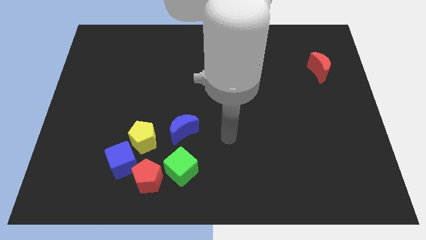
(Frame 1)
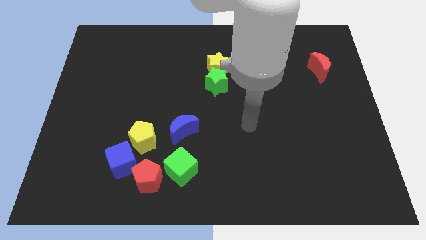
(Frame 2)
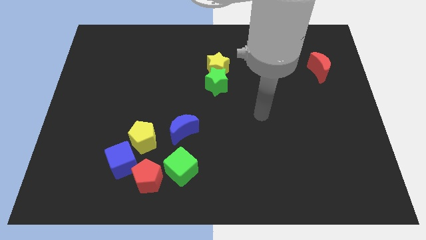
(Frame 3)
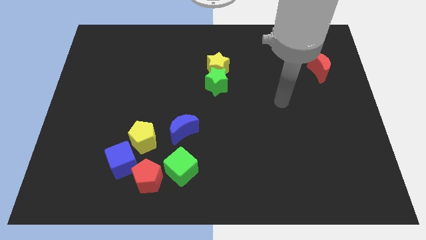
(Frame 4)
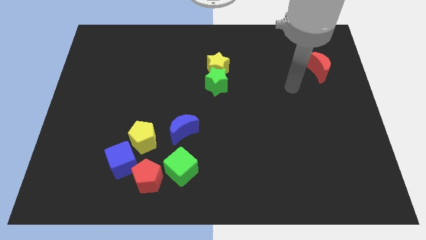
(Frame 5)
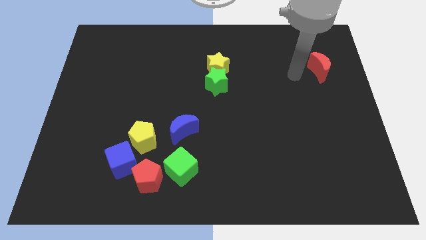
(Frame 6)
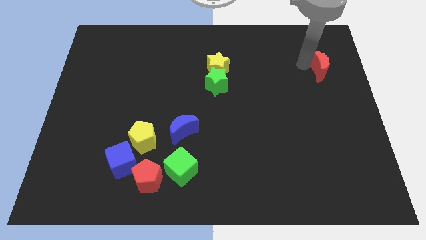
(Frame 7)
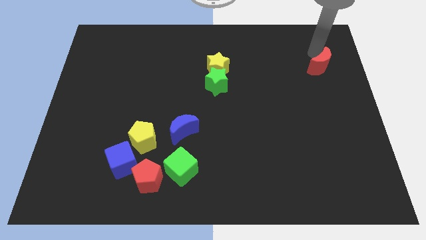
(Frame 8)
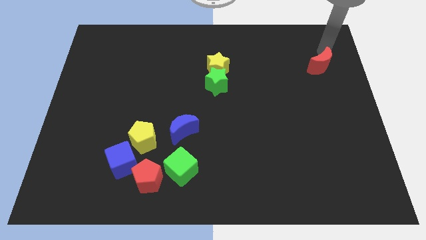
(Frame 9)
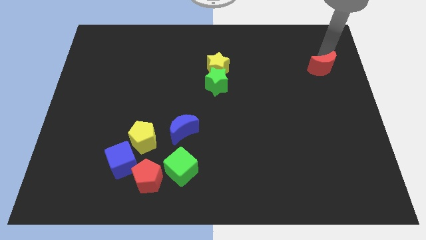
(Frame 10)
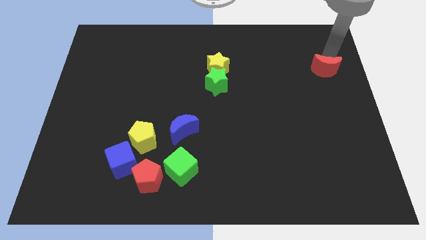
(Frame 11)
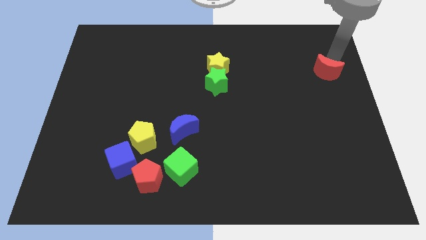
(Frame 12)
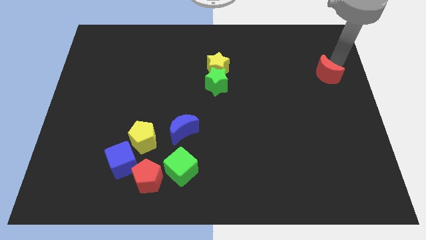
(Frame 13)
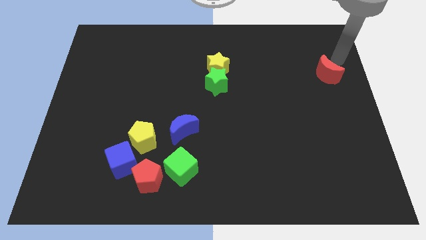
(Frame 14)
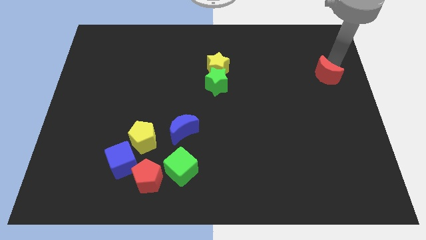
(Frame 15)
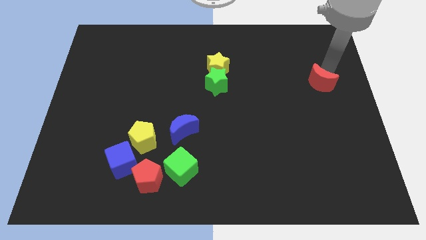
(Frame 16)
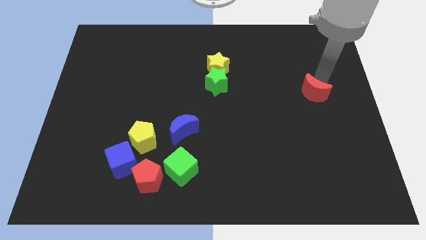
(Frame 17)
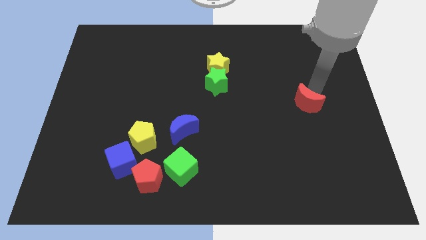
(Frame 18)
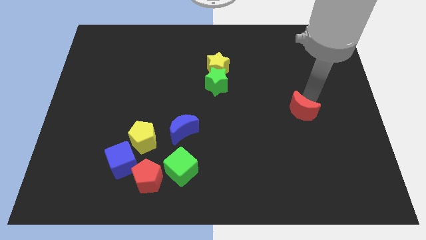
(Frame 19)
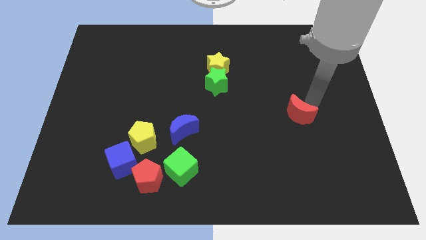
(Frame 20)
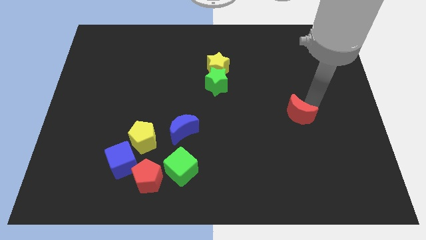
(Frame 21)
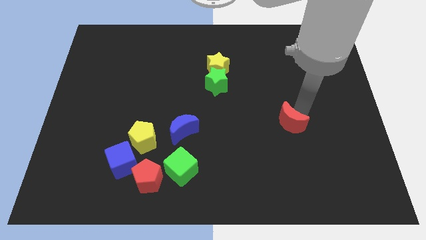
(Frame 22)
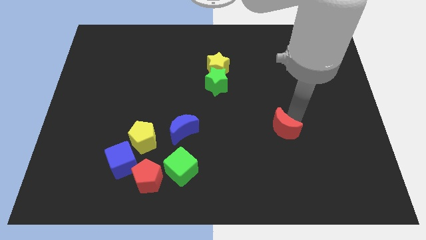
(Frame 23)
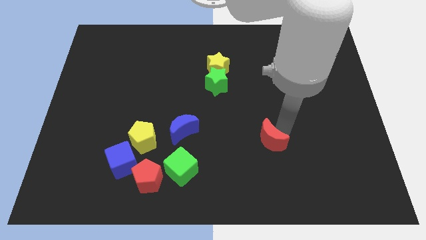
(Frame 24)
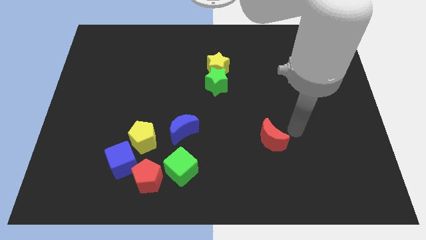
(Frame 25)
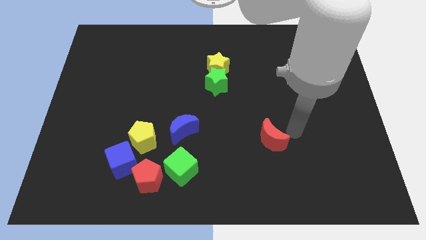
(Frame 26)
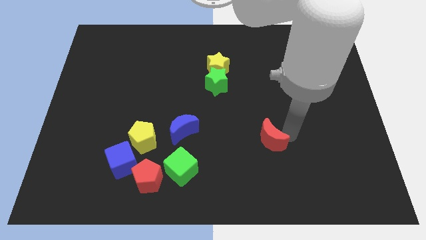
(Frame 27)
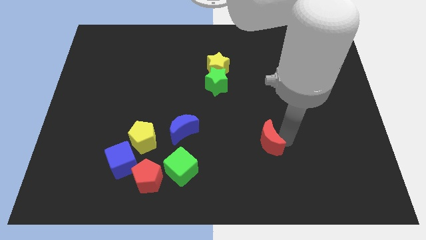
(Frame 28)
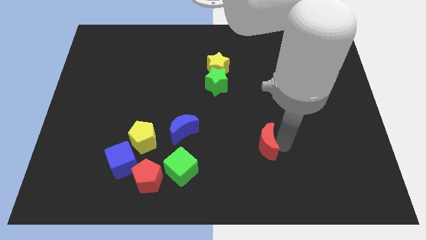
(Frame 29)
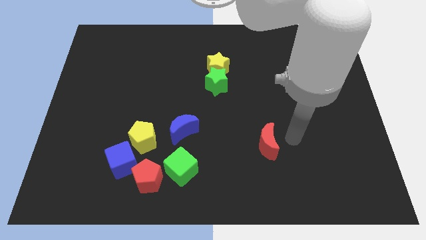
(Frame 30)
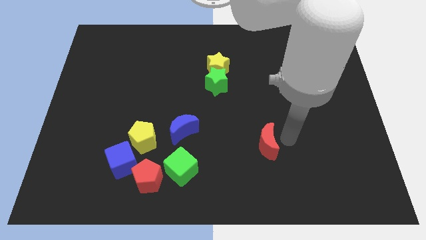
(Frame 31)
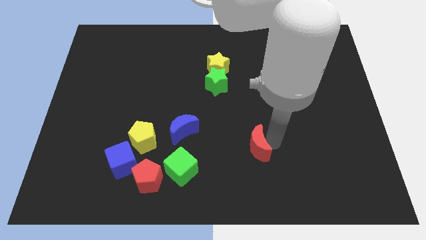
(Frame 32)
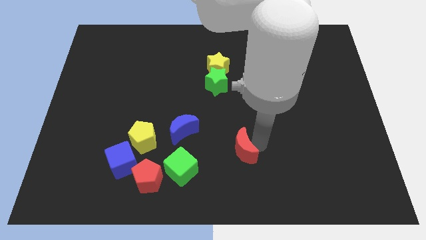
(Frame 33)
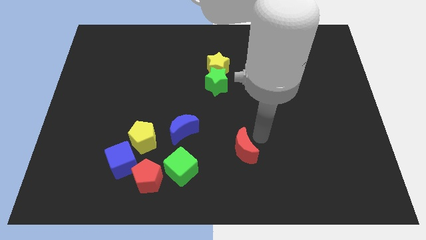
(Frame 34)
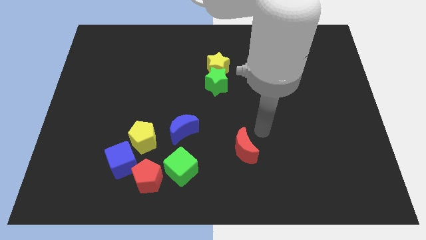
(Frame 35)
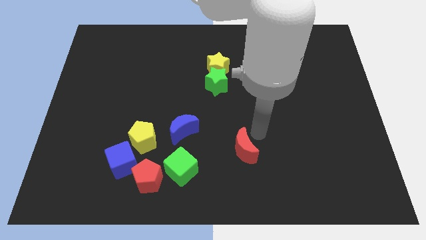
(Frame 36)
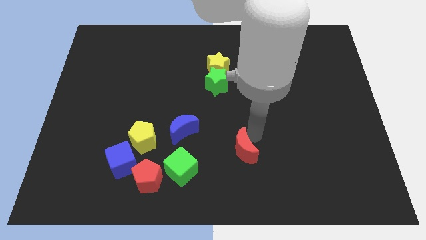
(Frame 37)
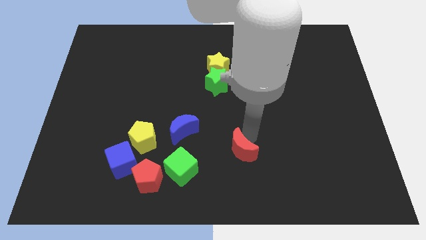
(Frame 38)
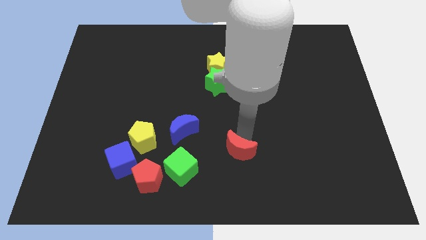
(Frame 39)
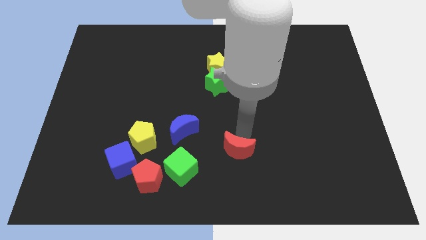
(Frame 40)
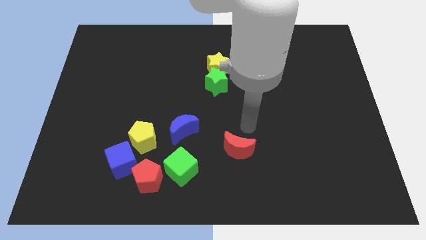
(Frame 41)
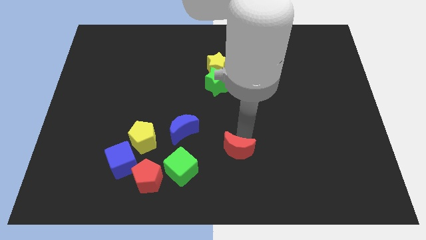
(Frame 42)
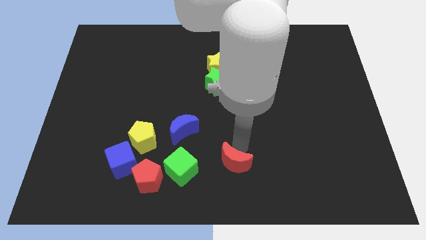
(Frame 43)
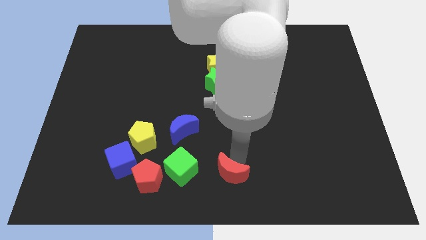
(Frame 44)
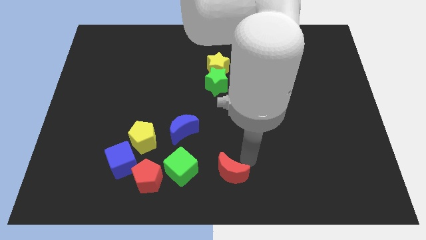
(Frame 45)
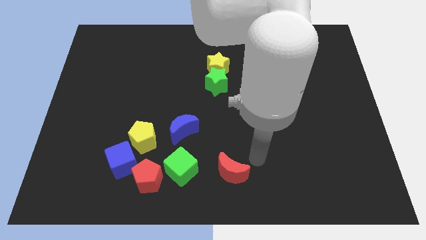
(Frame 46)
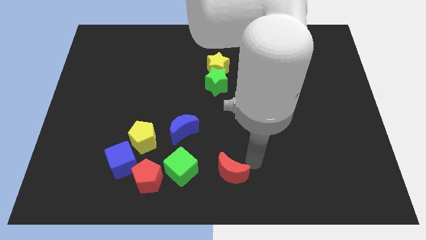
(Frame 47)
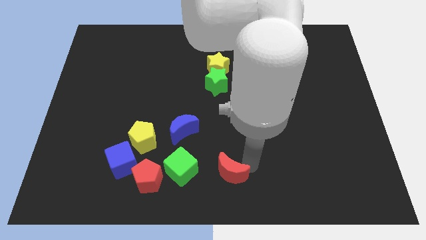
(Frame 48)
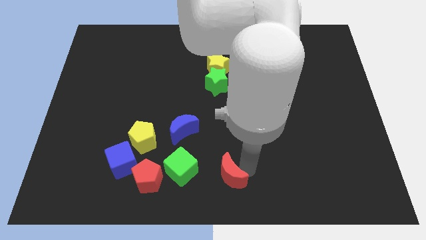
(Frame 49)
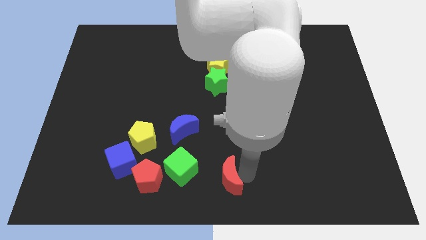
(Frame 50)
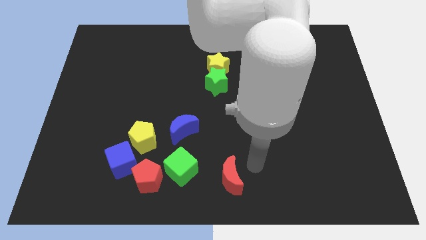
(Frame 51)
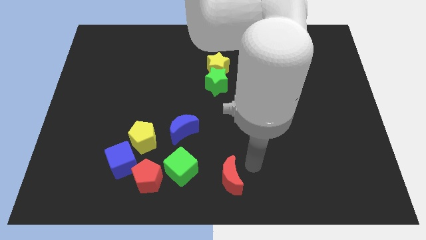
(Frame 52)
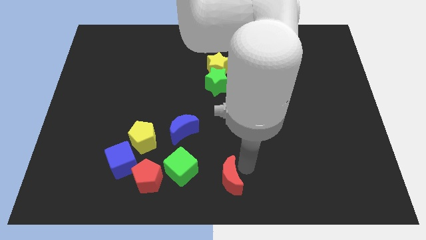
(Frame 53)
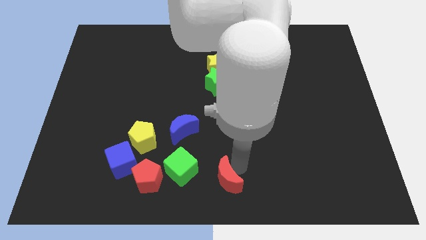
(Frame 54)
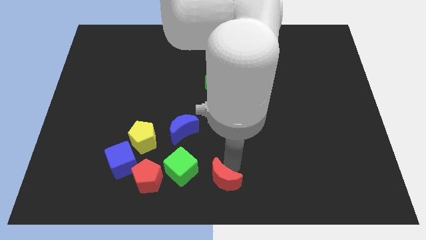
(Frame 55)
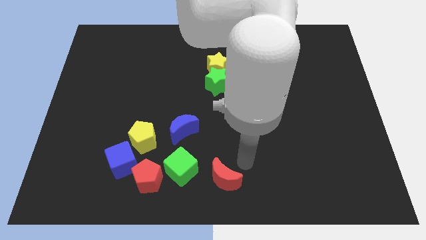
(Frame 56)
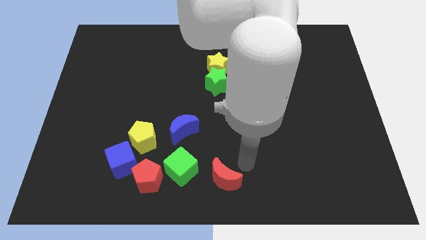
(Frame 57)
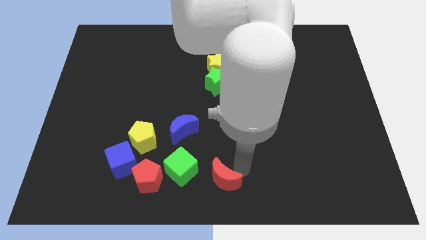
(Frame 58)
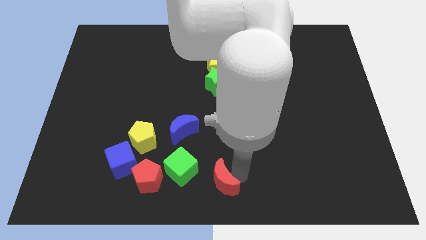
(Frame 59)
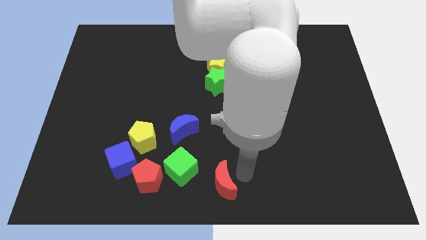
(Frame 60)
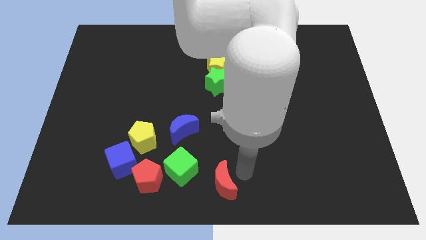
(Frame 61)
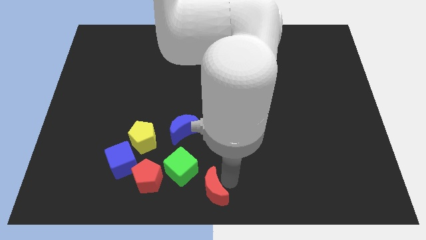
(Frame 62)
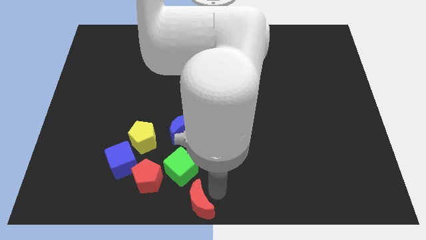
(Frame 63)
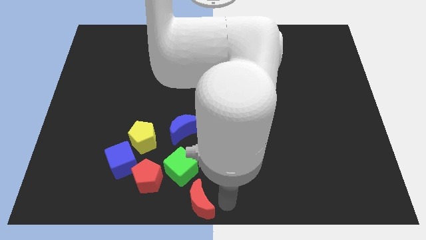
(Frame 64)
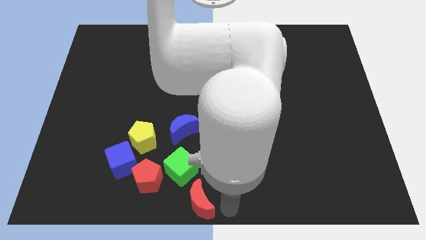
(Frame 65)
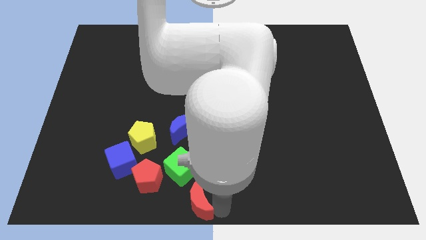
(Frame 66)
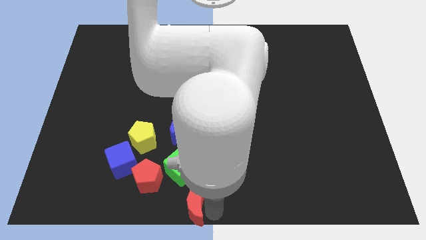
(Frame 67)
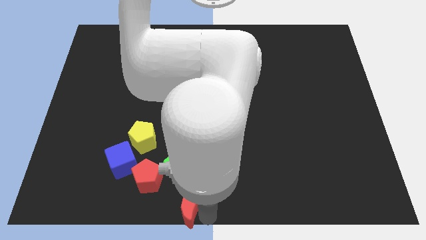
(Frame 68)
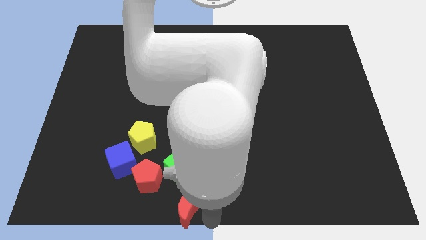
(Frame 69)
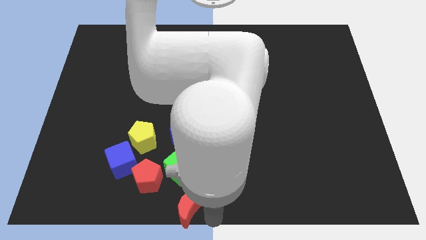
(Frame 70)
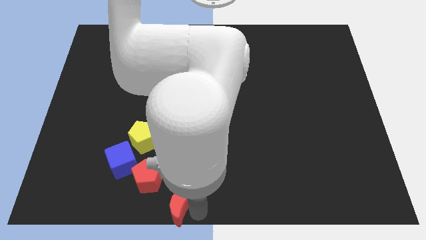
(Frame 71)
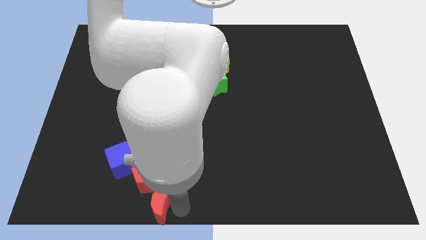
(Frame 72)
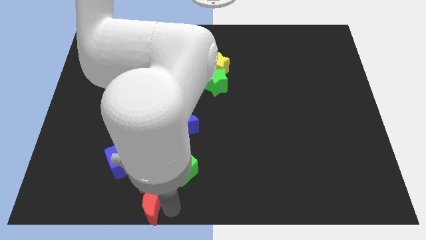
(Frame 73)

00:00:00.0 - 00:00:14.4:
slide the red moon to the bottom side of the yellow pentagon

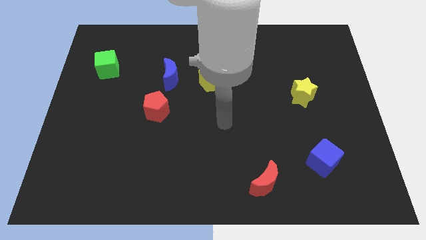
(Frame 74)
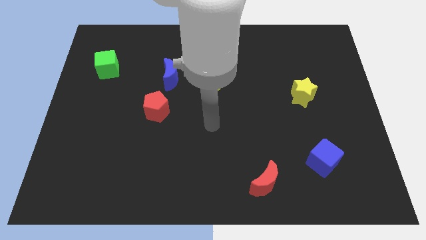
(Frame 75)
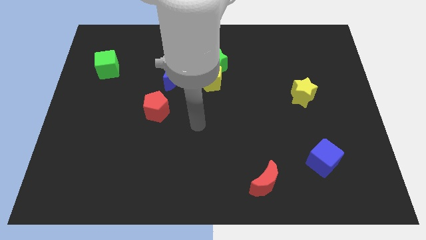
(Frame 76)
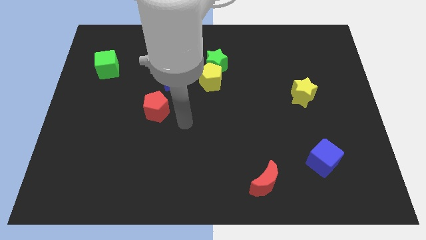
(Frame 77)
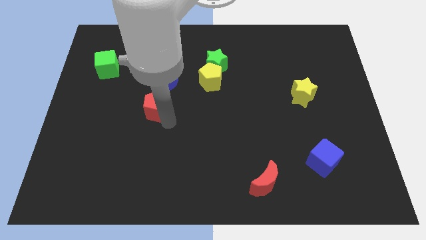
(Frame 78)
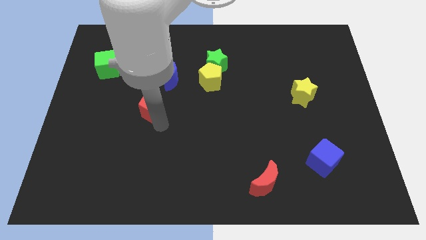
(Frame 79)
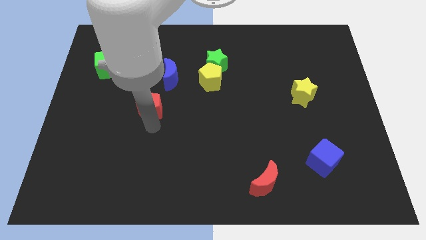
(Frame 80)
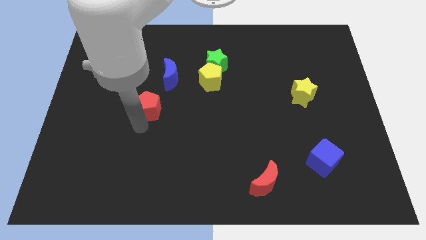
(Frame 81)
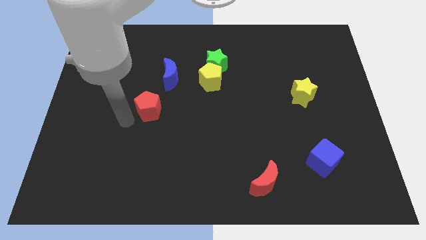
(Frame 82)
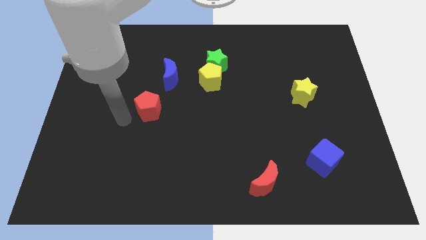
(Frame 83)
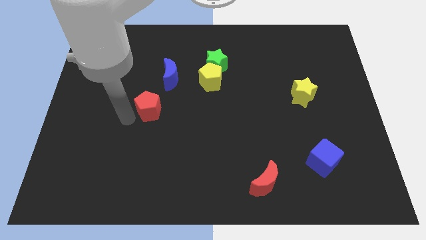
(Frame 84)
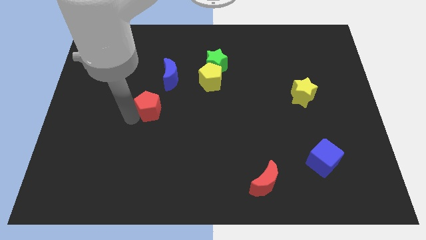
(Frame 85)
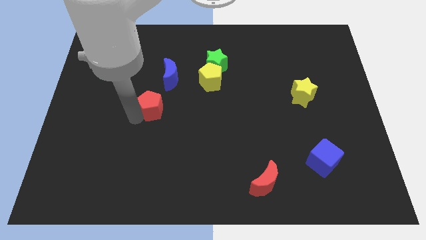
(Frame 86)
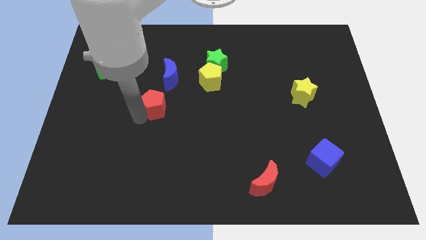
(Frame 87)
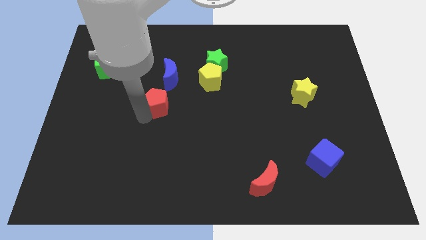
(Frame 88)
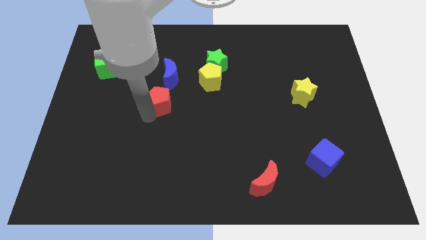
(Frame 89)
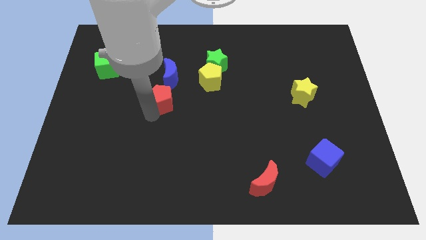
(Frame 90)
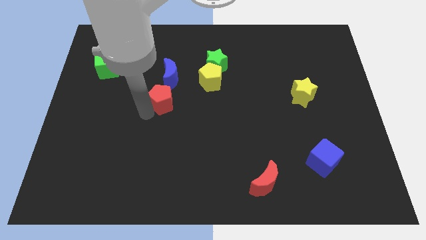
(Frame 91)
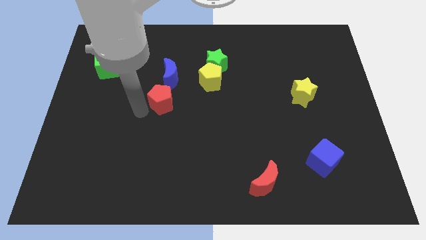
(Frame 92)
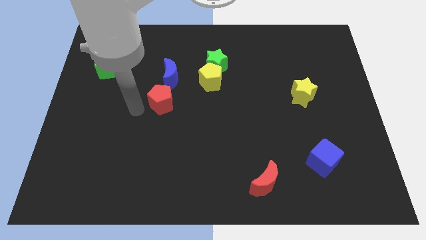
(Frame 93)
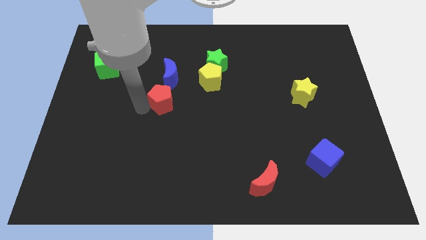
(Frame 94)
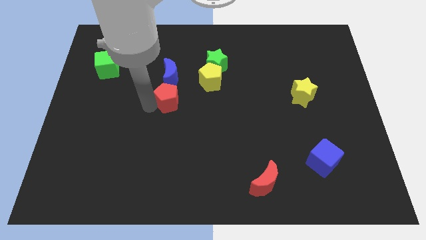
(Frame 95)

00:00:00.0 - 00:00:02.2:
push the red pentagon diagonally down and to the left of the yellow pentagon
